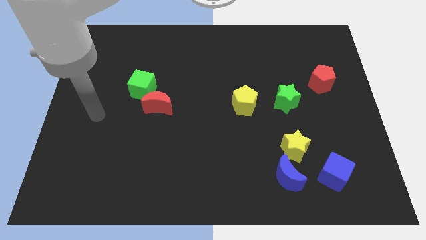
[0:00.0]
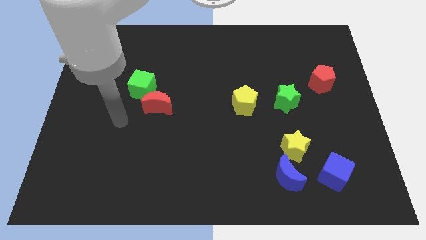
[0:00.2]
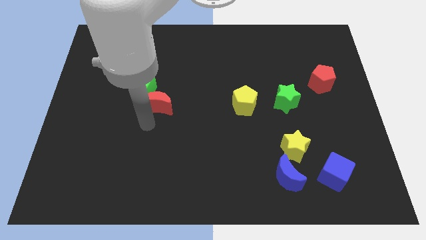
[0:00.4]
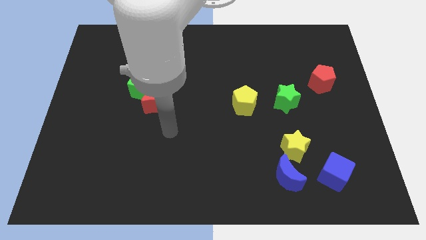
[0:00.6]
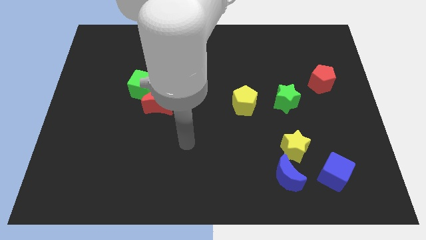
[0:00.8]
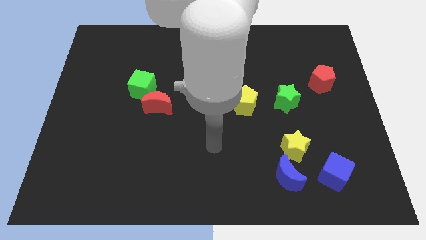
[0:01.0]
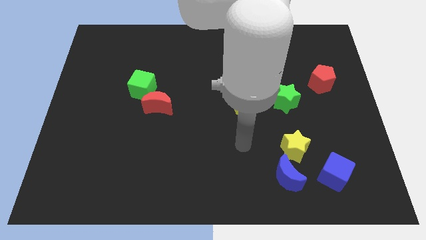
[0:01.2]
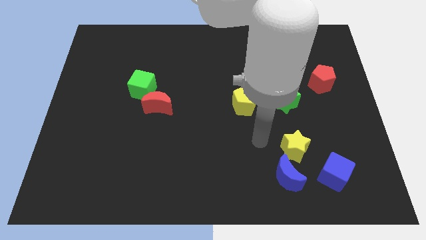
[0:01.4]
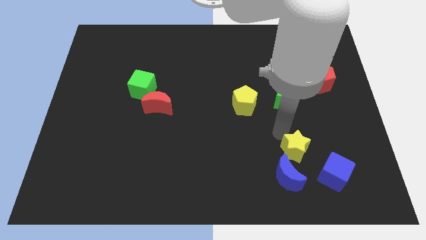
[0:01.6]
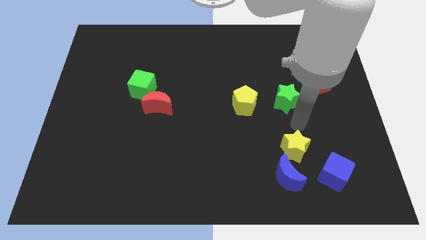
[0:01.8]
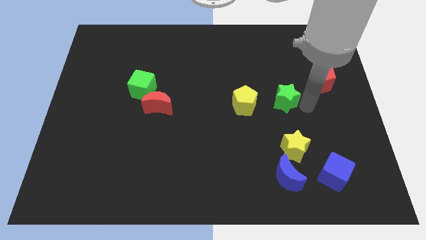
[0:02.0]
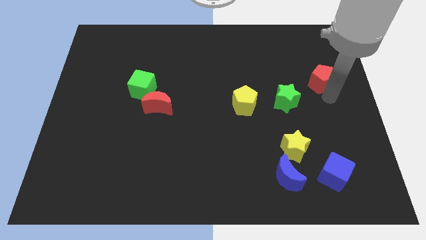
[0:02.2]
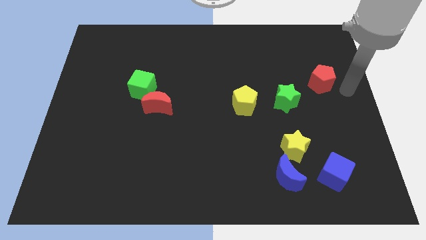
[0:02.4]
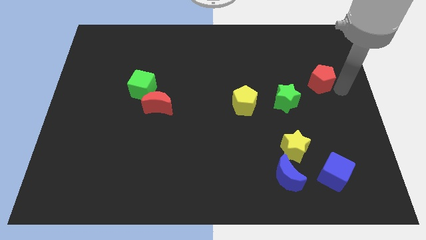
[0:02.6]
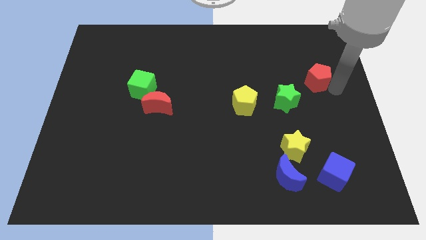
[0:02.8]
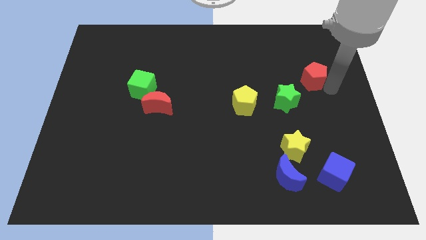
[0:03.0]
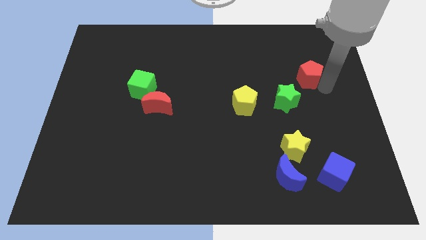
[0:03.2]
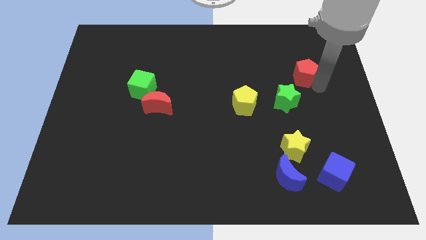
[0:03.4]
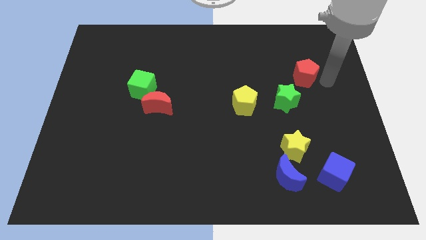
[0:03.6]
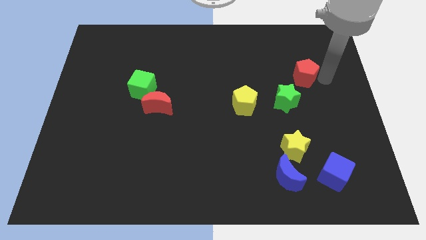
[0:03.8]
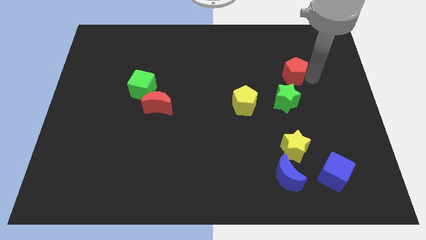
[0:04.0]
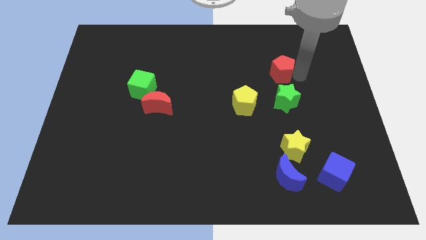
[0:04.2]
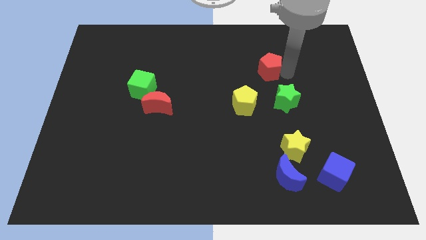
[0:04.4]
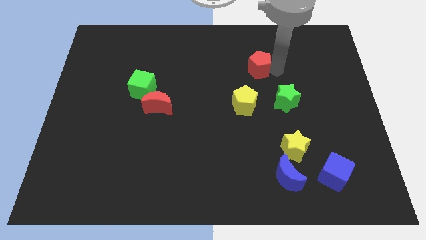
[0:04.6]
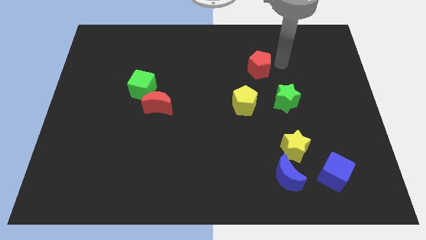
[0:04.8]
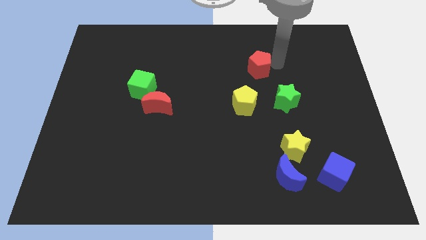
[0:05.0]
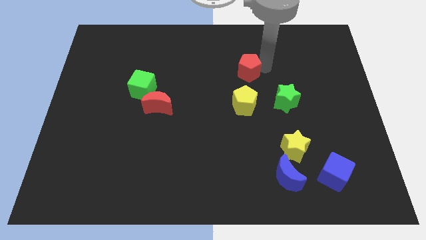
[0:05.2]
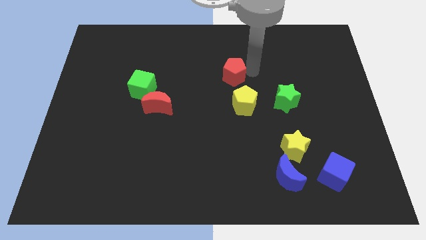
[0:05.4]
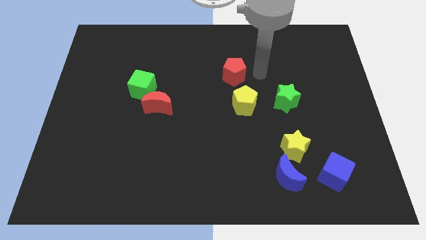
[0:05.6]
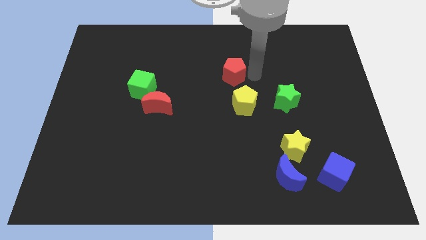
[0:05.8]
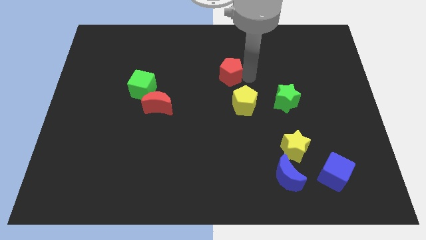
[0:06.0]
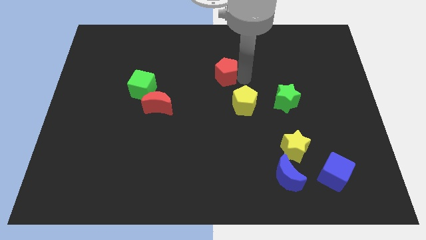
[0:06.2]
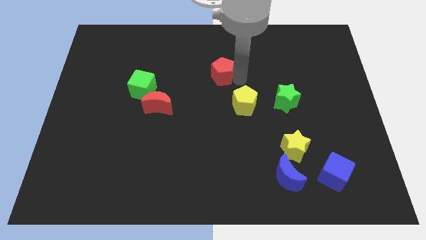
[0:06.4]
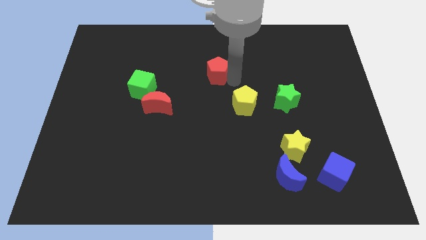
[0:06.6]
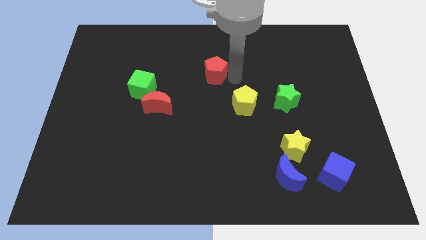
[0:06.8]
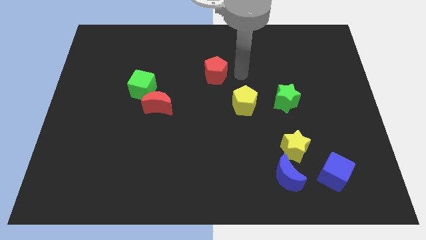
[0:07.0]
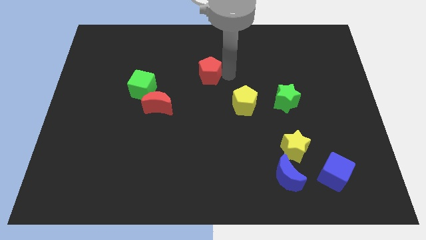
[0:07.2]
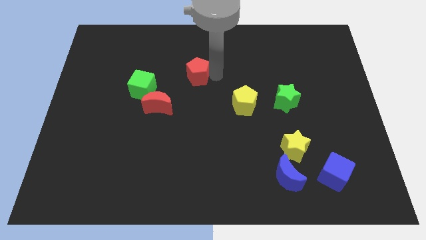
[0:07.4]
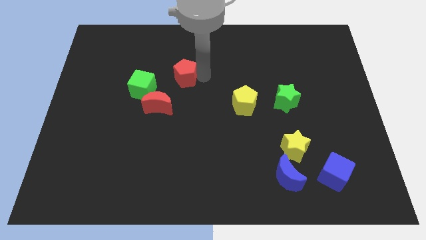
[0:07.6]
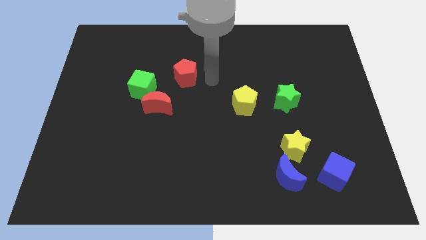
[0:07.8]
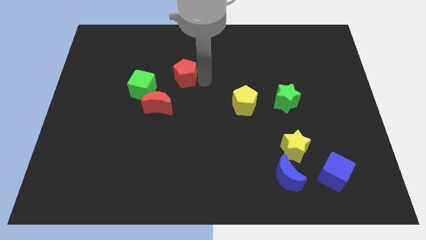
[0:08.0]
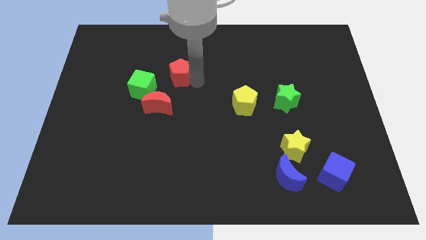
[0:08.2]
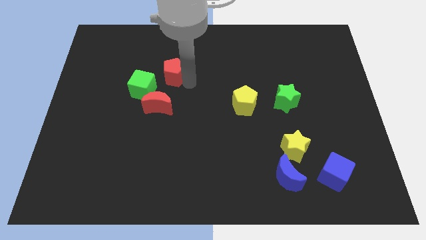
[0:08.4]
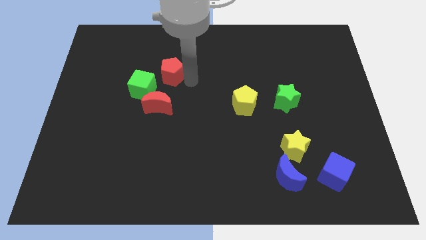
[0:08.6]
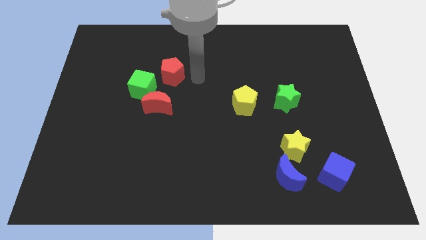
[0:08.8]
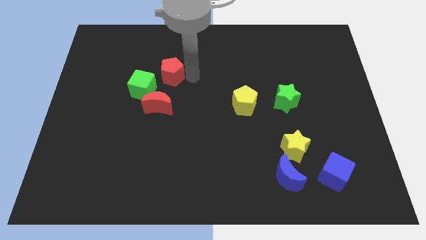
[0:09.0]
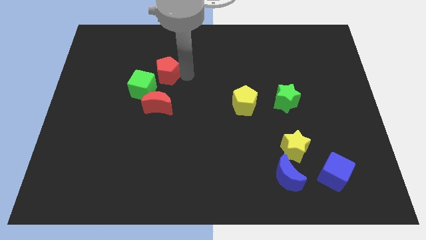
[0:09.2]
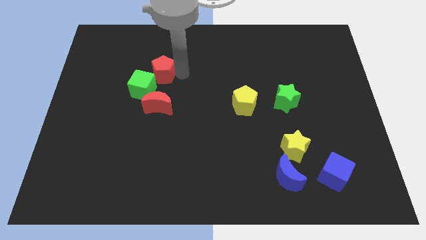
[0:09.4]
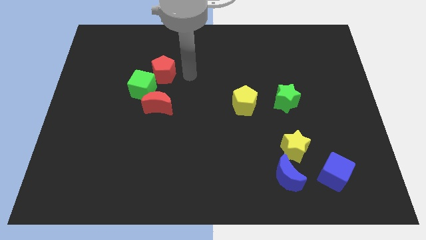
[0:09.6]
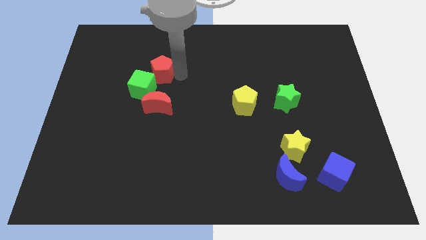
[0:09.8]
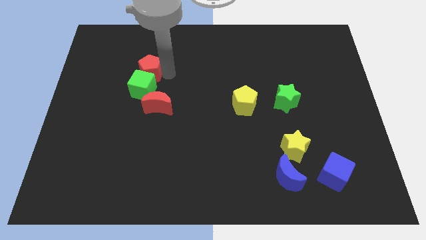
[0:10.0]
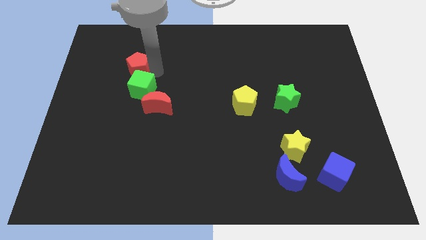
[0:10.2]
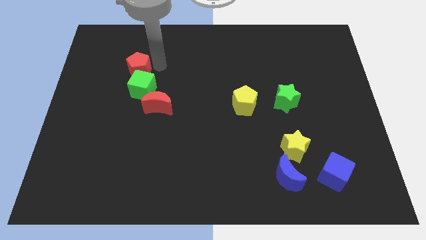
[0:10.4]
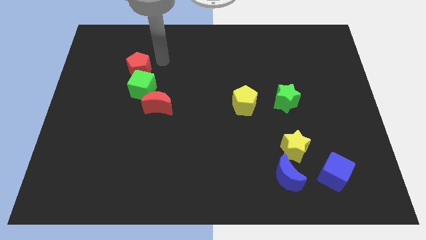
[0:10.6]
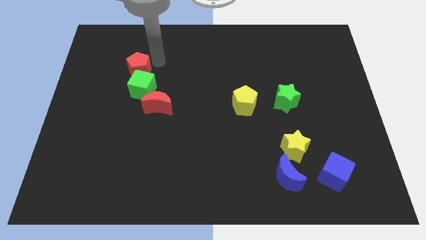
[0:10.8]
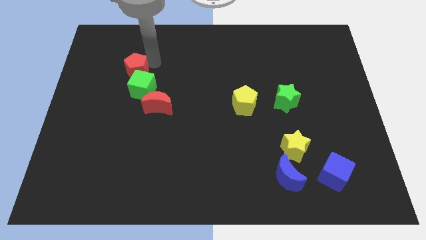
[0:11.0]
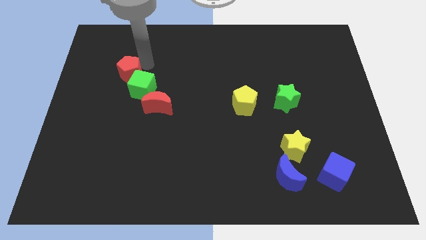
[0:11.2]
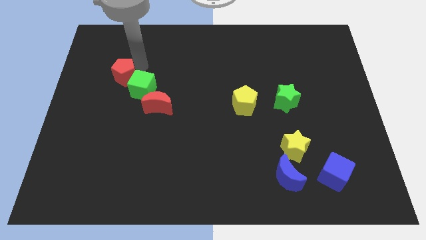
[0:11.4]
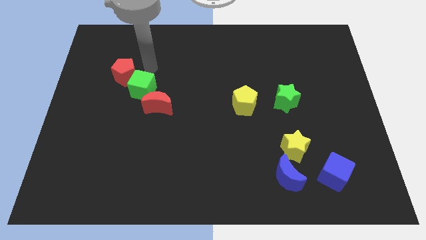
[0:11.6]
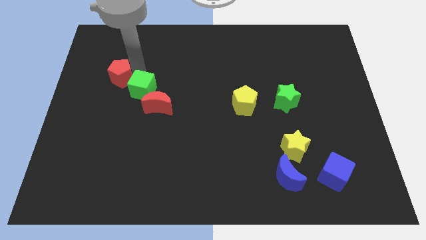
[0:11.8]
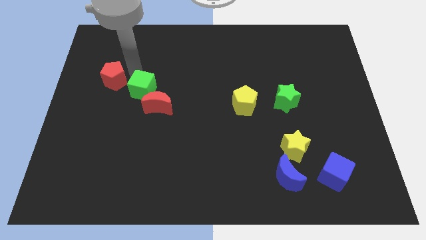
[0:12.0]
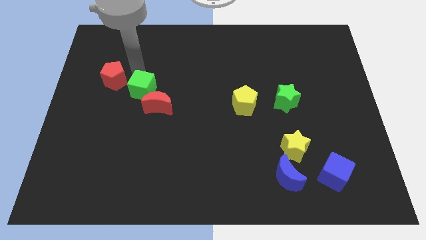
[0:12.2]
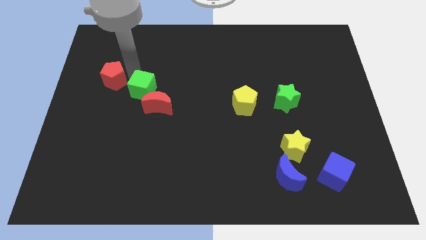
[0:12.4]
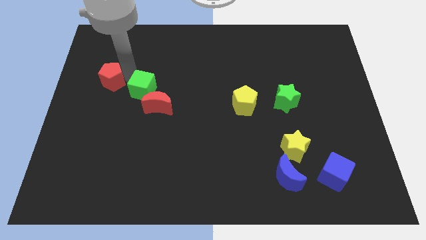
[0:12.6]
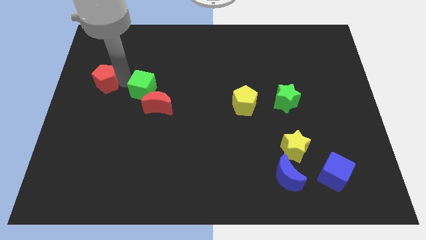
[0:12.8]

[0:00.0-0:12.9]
push the red pentagon to the left side
